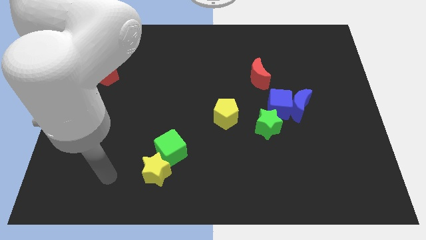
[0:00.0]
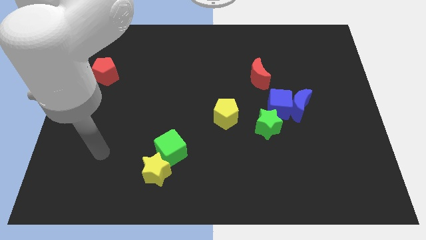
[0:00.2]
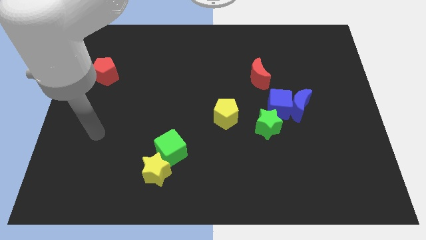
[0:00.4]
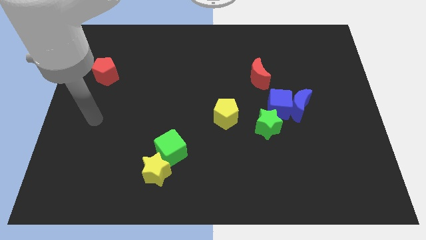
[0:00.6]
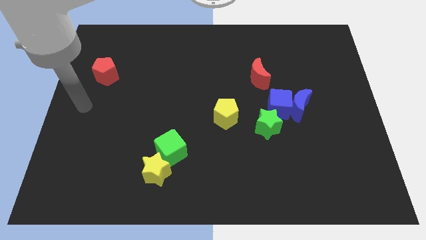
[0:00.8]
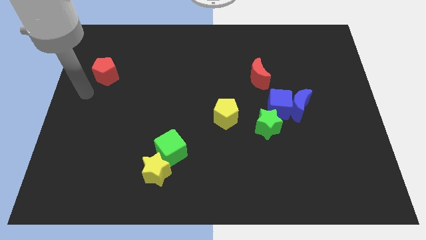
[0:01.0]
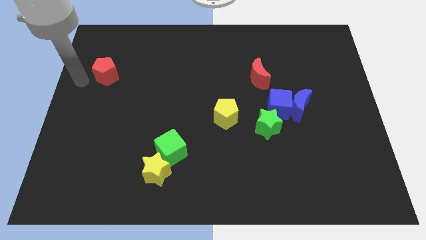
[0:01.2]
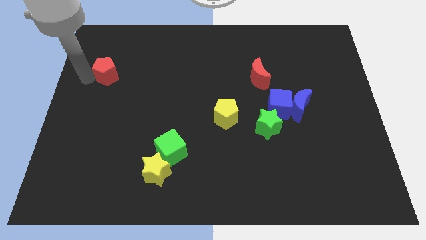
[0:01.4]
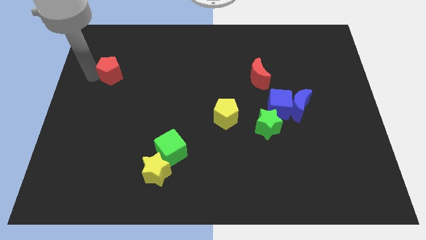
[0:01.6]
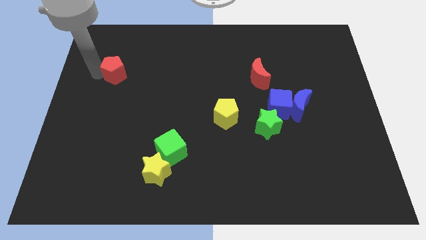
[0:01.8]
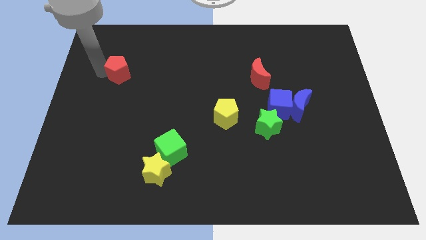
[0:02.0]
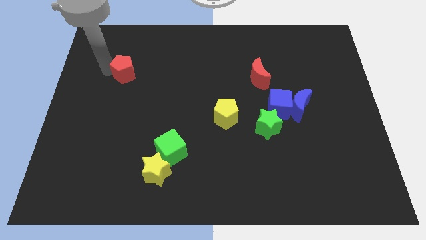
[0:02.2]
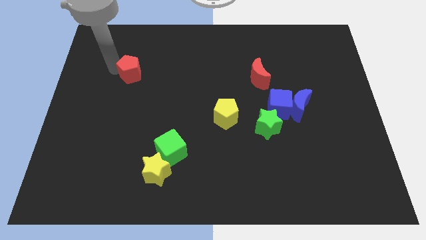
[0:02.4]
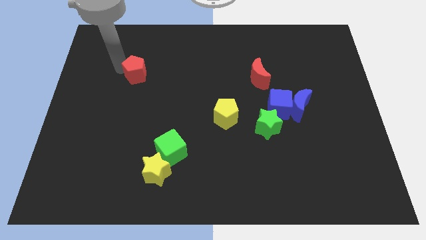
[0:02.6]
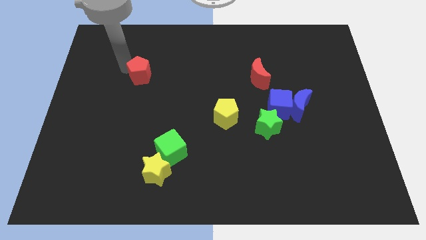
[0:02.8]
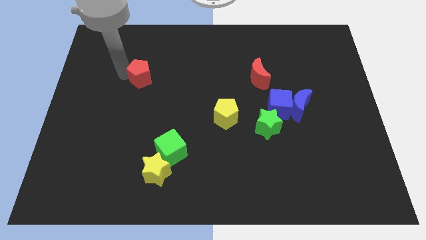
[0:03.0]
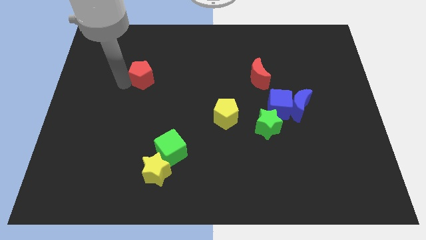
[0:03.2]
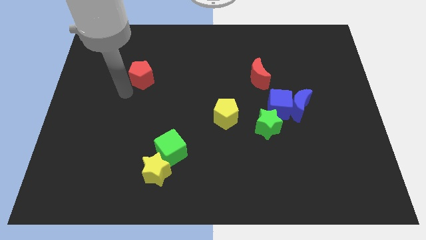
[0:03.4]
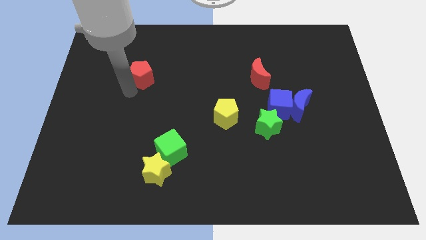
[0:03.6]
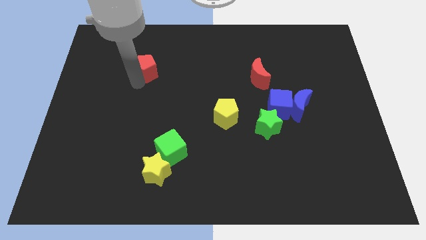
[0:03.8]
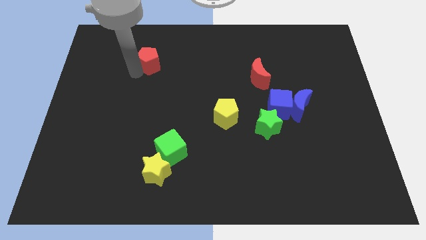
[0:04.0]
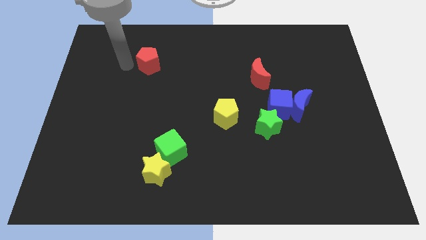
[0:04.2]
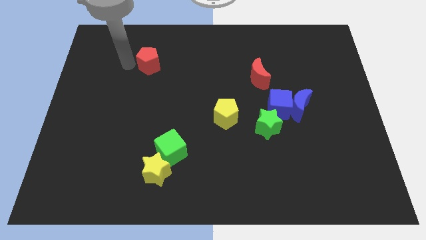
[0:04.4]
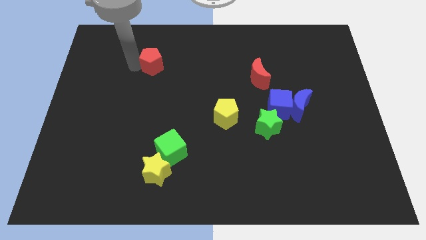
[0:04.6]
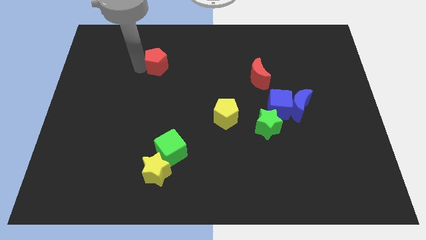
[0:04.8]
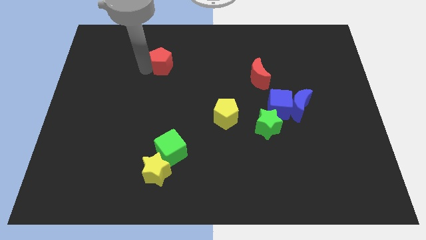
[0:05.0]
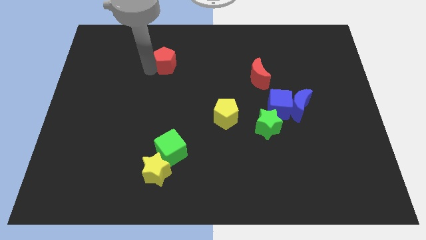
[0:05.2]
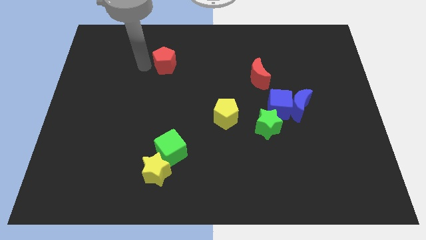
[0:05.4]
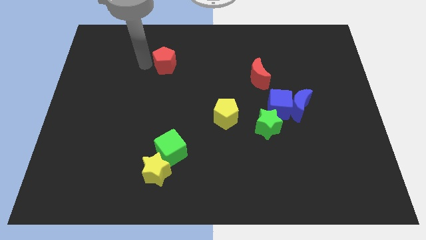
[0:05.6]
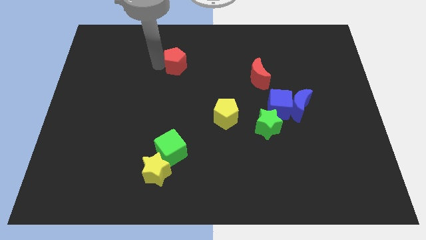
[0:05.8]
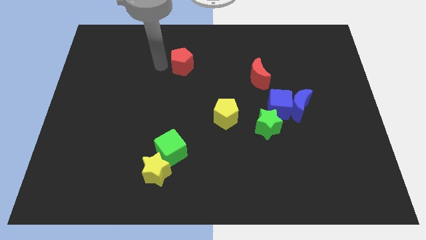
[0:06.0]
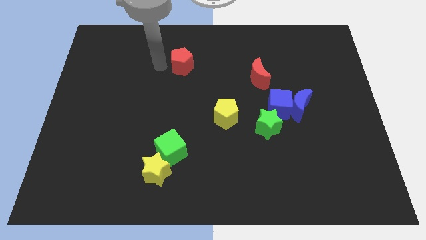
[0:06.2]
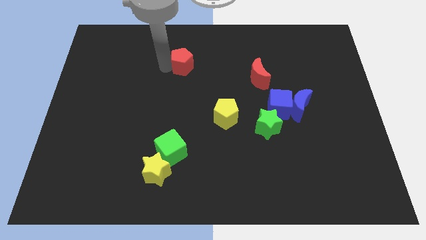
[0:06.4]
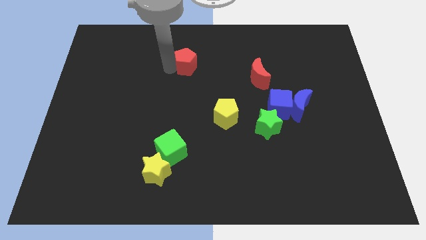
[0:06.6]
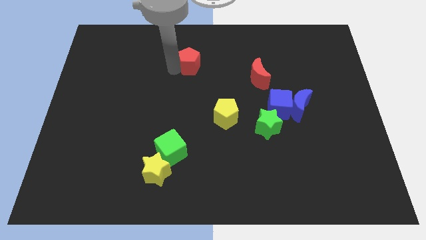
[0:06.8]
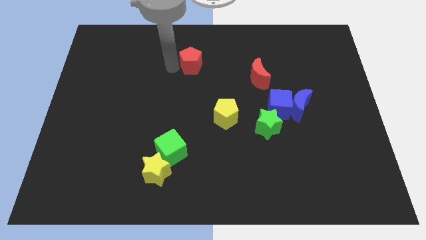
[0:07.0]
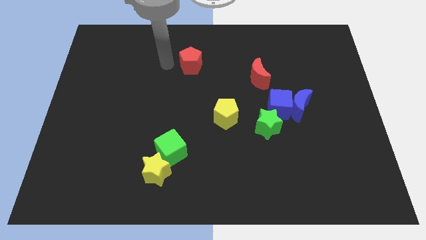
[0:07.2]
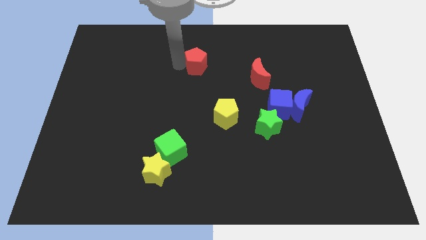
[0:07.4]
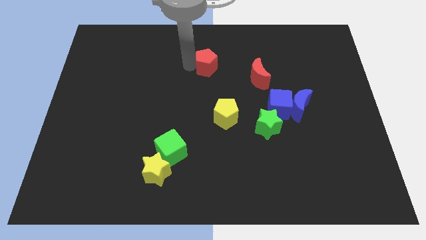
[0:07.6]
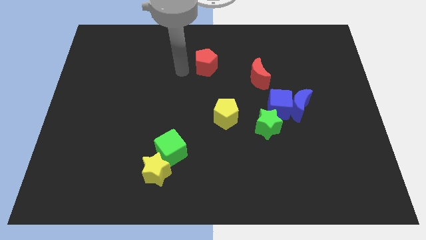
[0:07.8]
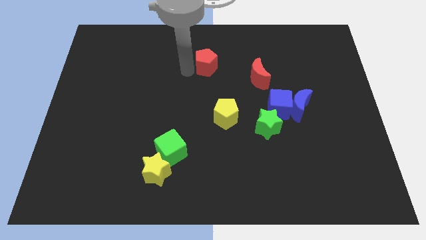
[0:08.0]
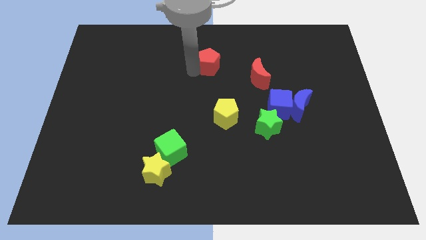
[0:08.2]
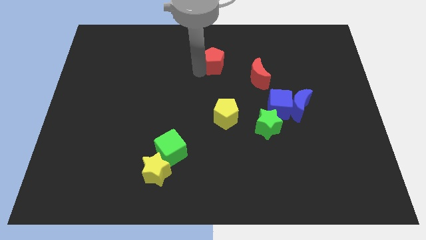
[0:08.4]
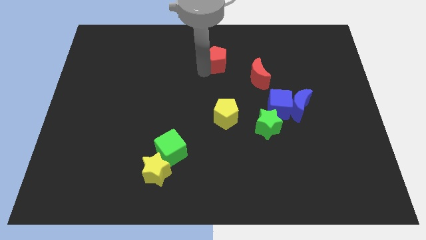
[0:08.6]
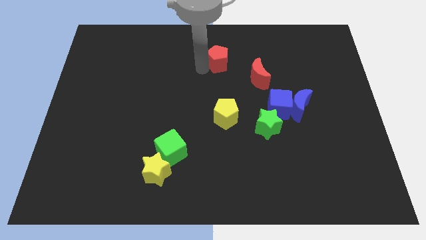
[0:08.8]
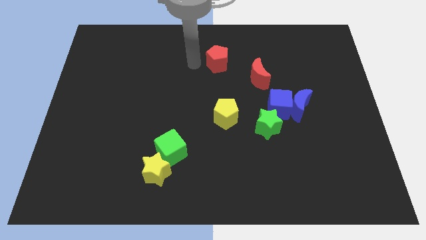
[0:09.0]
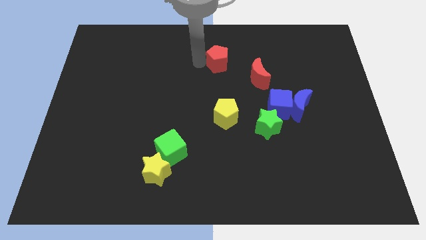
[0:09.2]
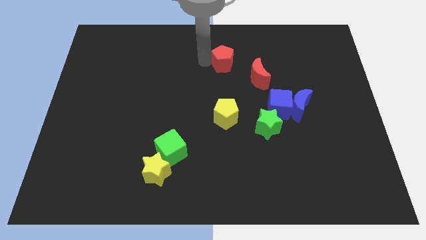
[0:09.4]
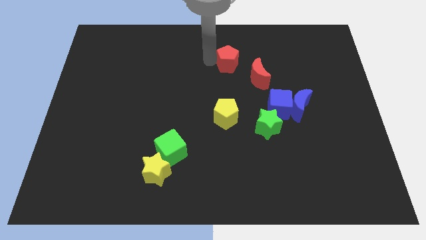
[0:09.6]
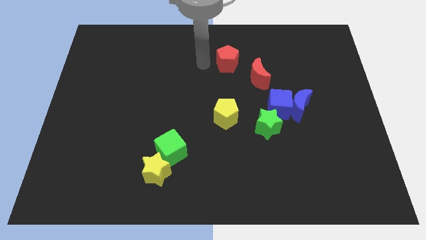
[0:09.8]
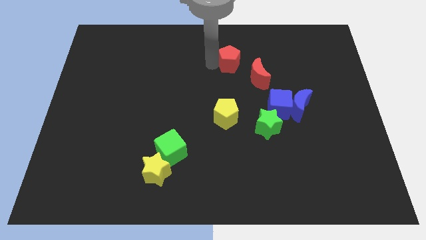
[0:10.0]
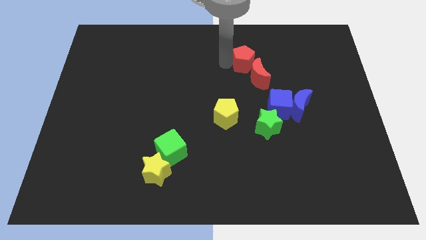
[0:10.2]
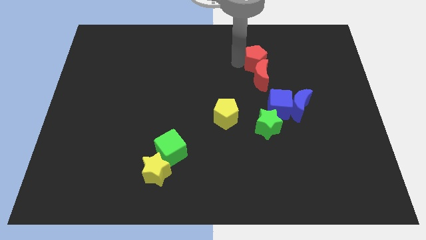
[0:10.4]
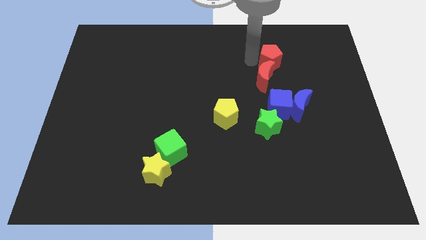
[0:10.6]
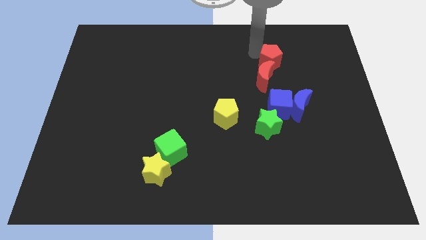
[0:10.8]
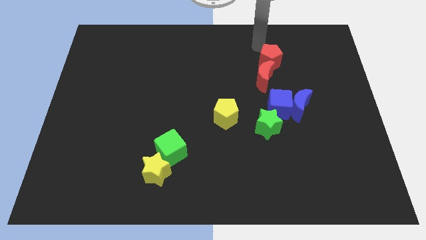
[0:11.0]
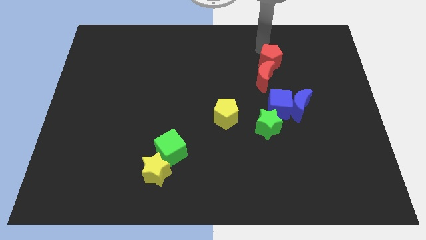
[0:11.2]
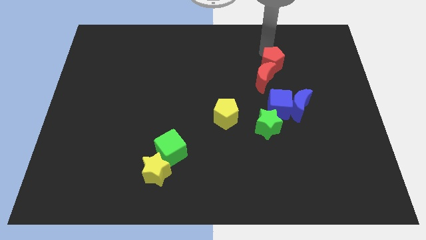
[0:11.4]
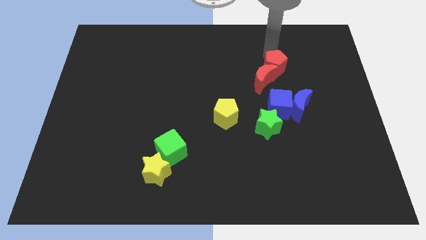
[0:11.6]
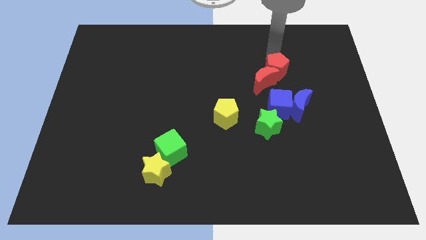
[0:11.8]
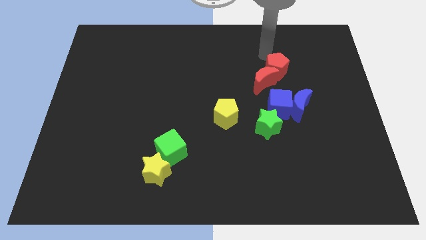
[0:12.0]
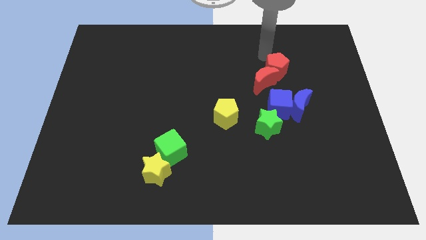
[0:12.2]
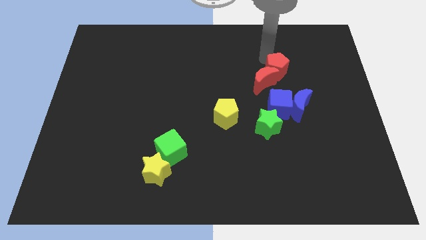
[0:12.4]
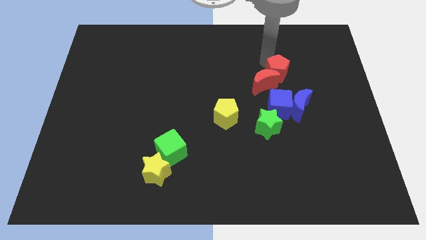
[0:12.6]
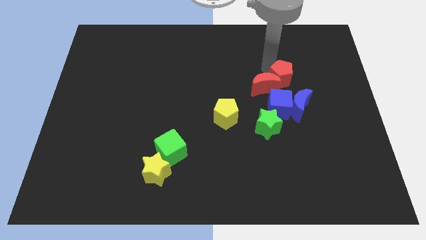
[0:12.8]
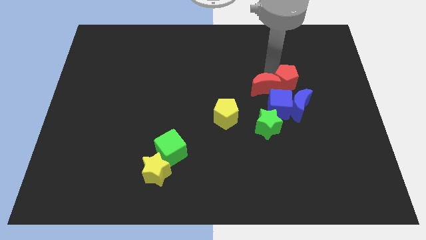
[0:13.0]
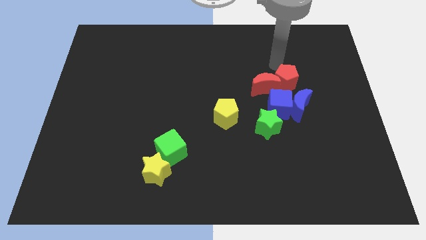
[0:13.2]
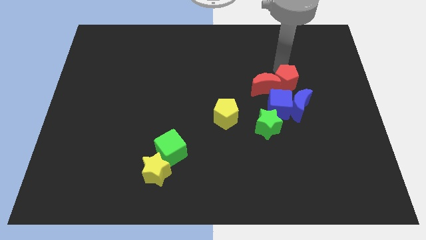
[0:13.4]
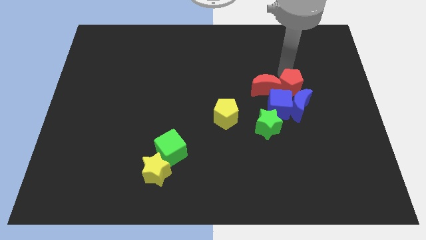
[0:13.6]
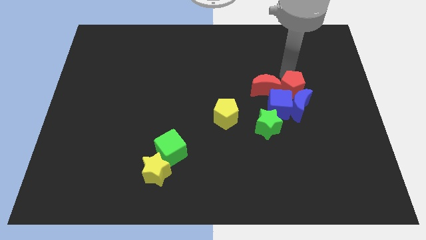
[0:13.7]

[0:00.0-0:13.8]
put the red pentagon towards the blue moon
